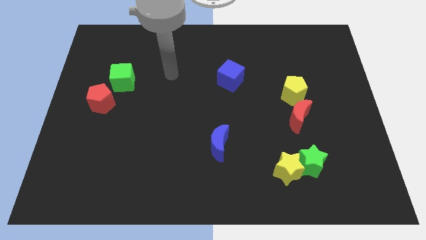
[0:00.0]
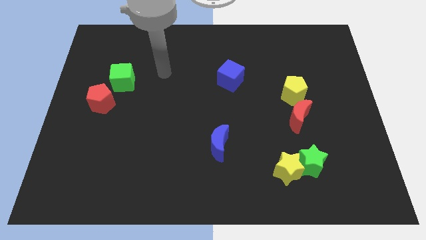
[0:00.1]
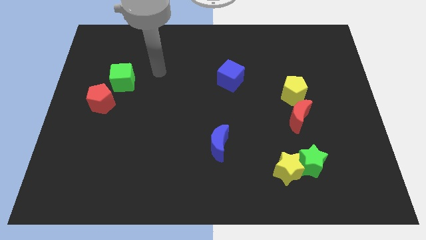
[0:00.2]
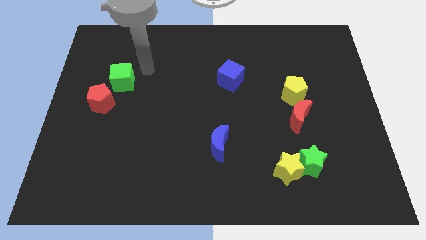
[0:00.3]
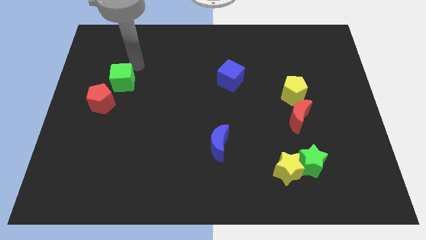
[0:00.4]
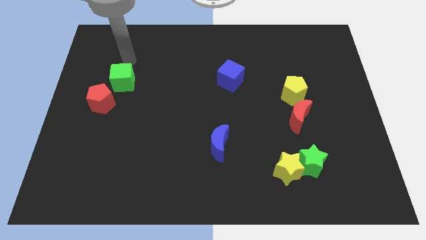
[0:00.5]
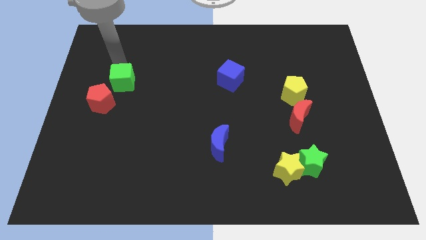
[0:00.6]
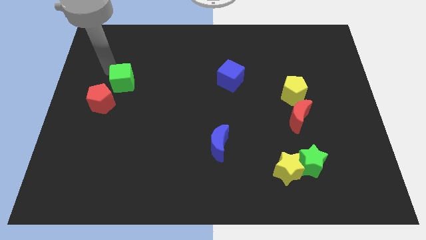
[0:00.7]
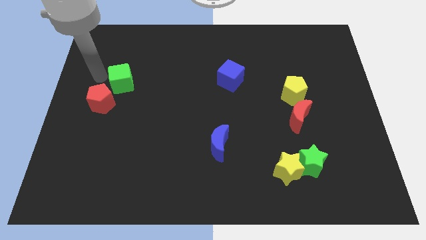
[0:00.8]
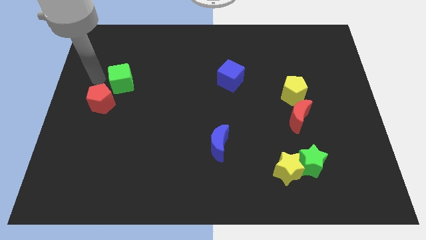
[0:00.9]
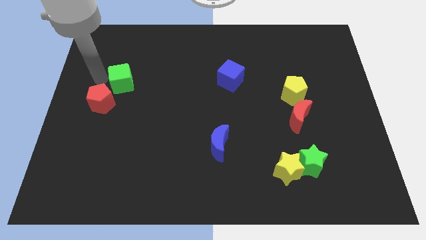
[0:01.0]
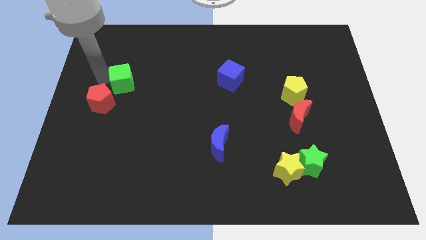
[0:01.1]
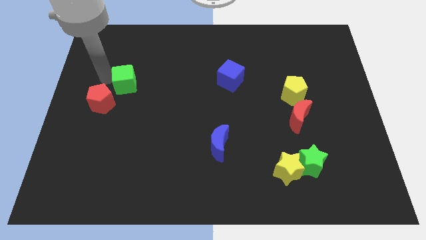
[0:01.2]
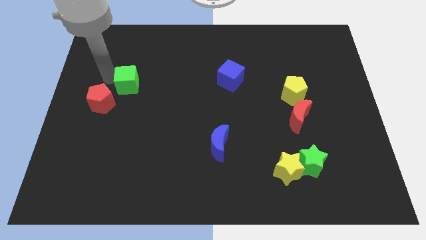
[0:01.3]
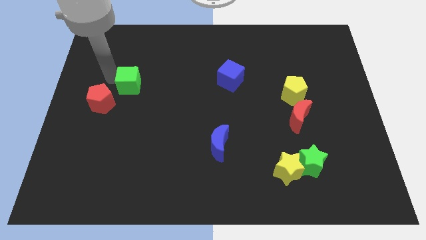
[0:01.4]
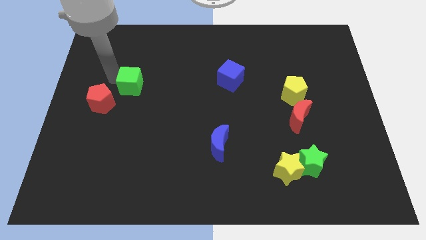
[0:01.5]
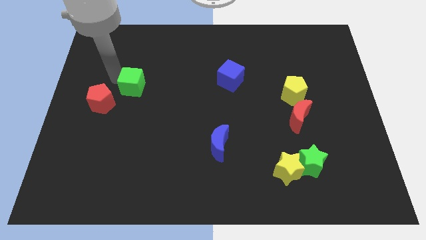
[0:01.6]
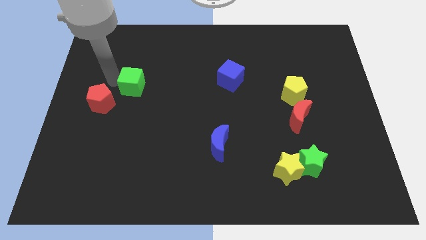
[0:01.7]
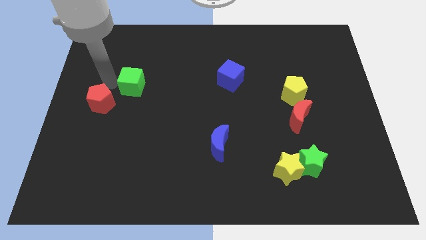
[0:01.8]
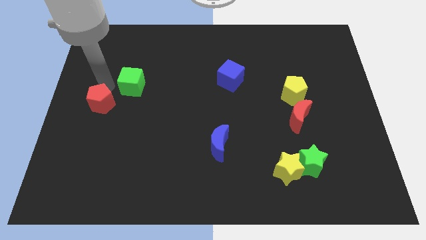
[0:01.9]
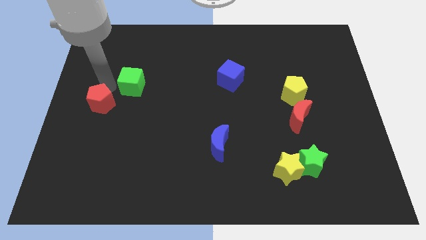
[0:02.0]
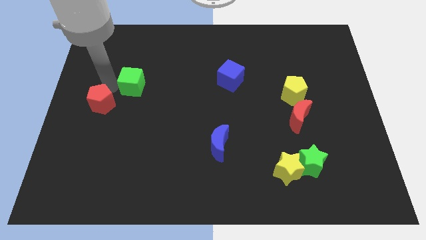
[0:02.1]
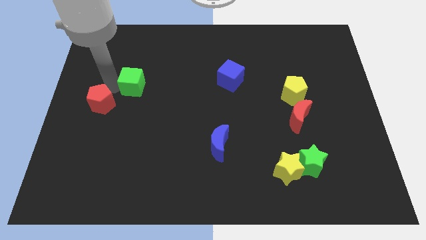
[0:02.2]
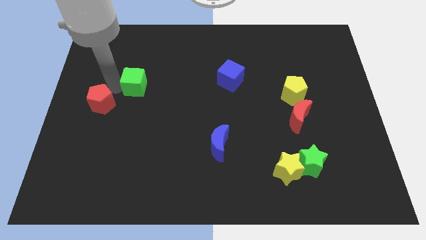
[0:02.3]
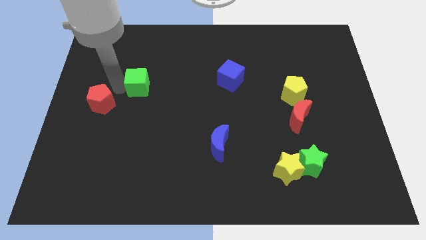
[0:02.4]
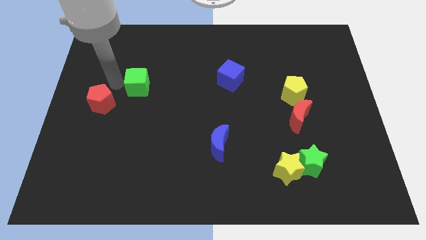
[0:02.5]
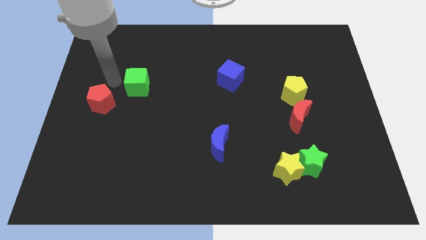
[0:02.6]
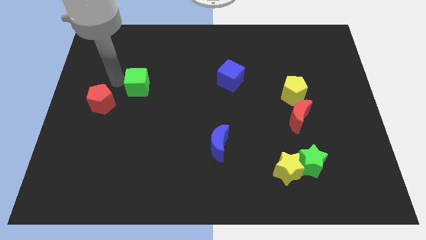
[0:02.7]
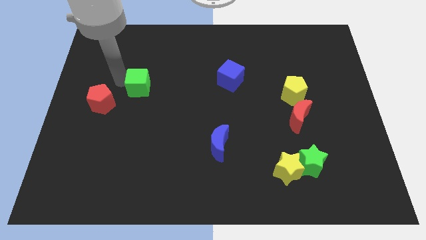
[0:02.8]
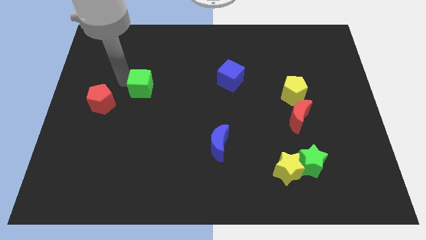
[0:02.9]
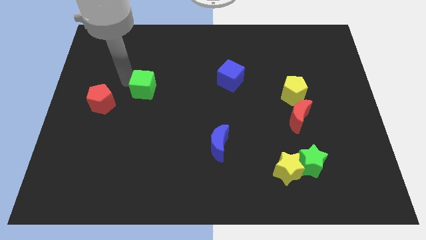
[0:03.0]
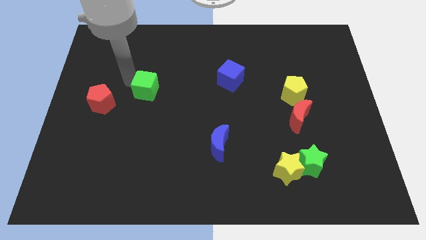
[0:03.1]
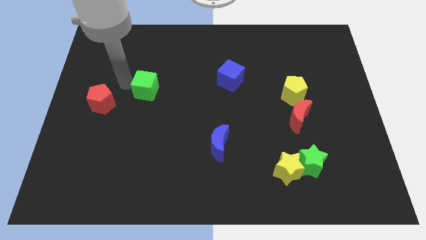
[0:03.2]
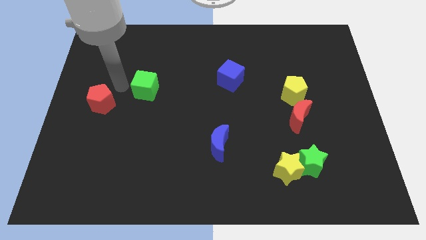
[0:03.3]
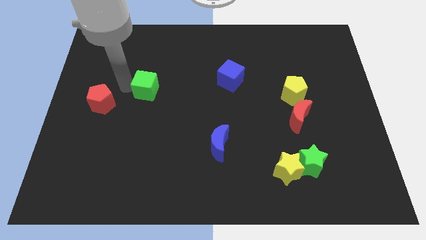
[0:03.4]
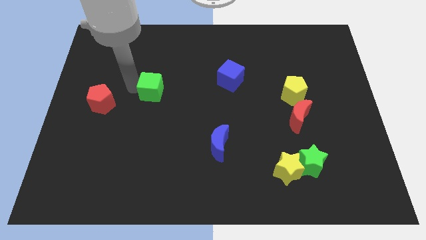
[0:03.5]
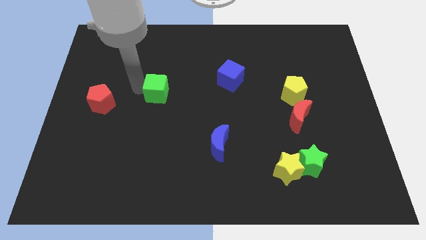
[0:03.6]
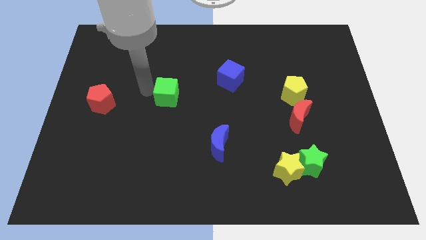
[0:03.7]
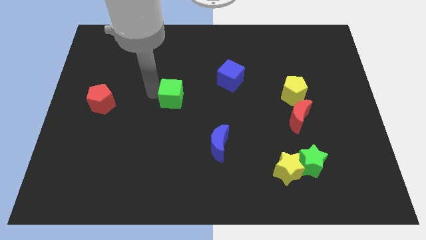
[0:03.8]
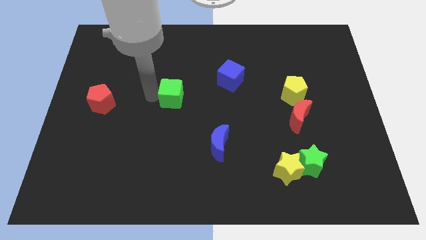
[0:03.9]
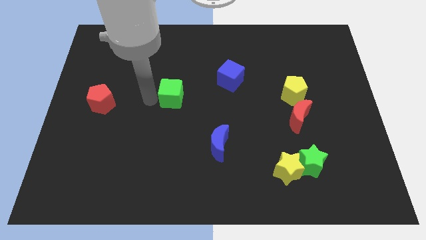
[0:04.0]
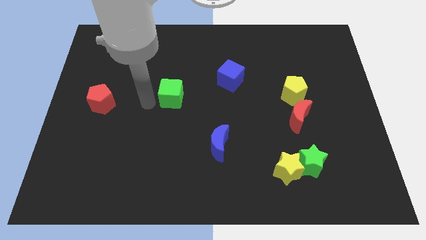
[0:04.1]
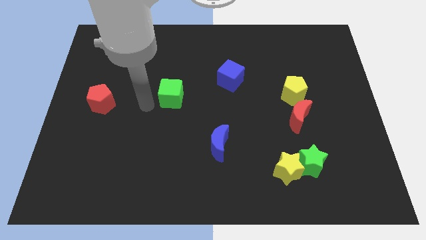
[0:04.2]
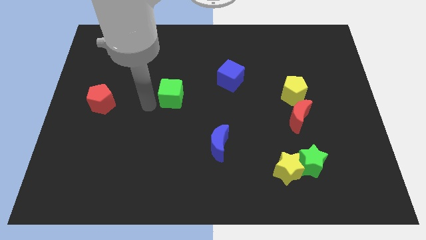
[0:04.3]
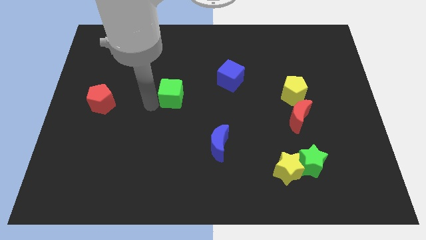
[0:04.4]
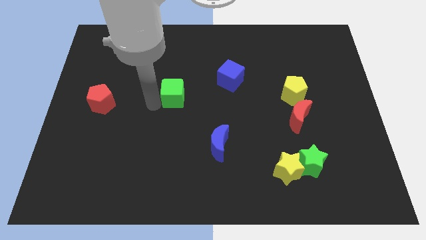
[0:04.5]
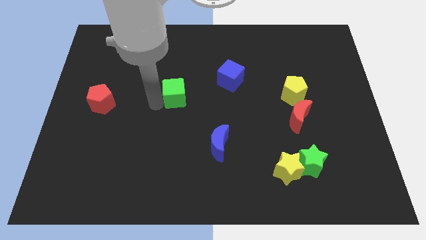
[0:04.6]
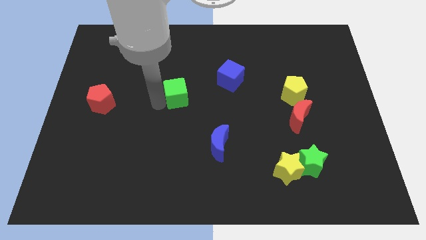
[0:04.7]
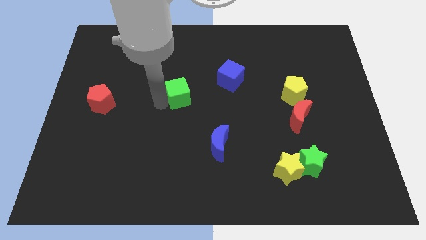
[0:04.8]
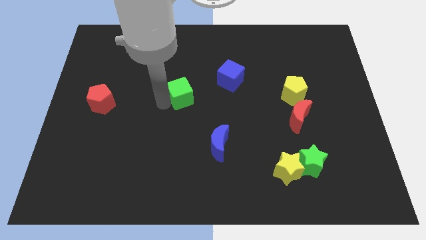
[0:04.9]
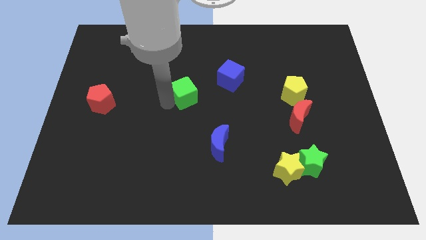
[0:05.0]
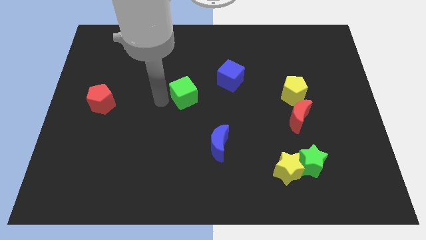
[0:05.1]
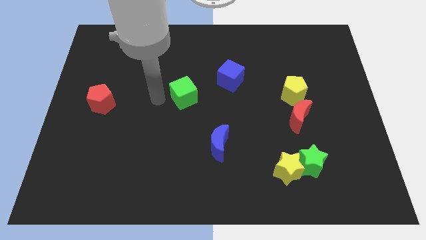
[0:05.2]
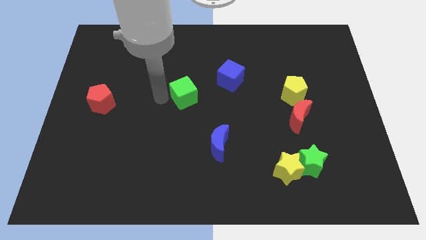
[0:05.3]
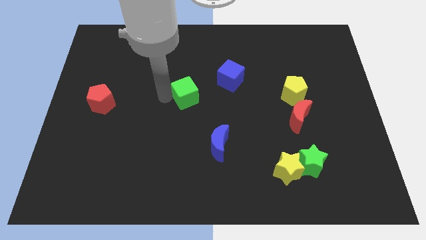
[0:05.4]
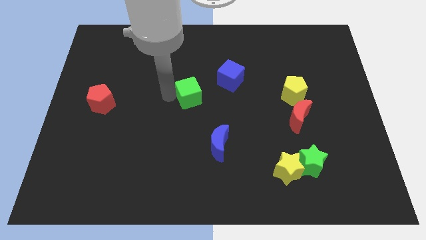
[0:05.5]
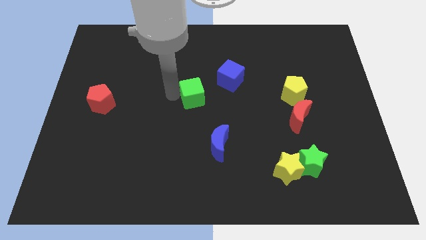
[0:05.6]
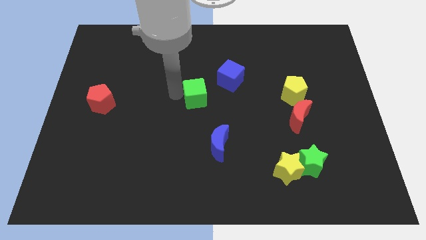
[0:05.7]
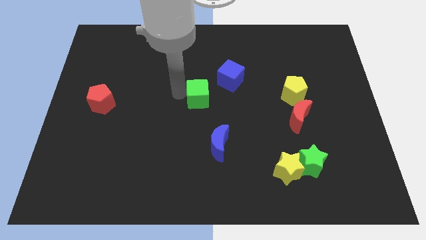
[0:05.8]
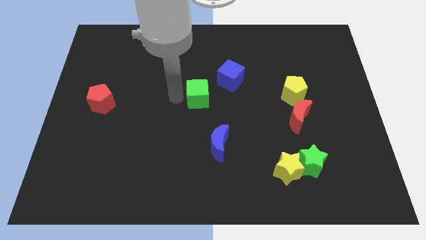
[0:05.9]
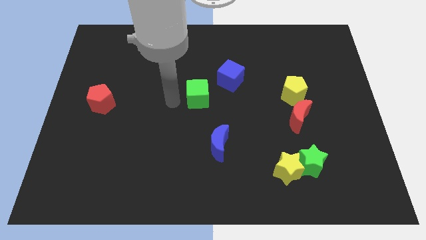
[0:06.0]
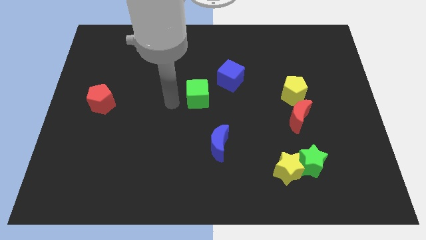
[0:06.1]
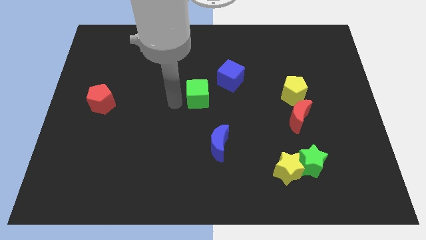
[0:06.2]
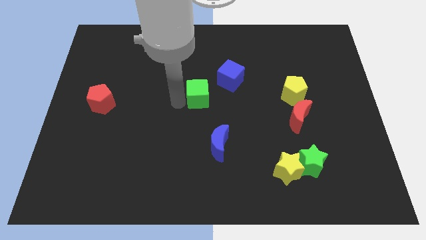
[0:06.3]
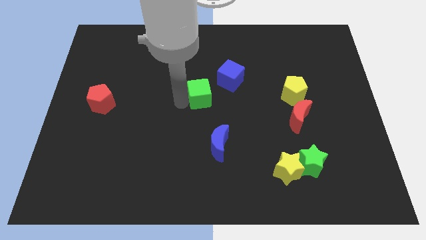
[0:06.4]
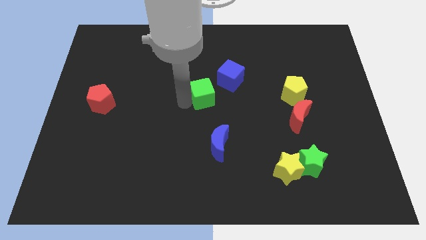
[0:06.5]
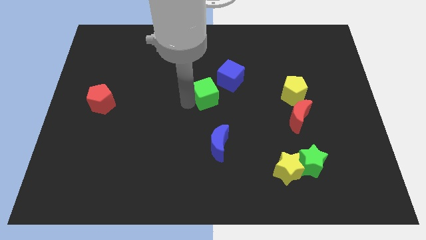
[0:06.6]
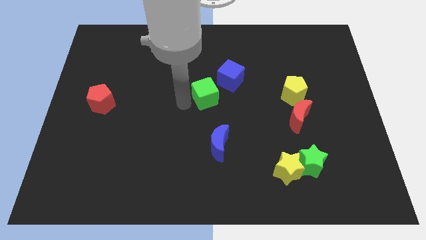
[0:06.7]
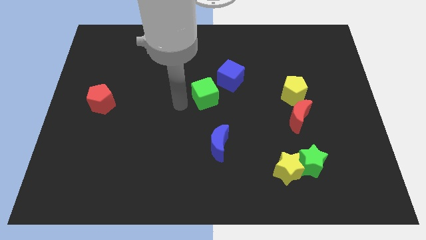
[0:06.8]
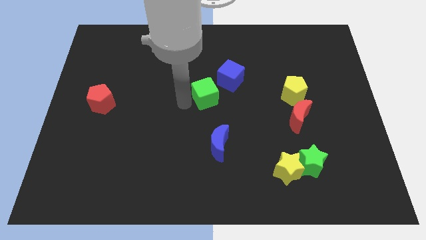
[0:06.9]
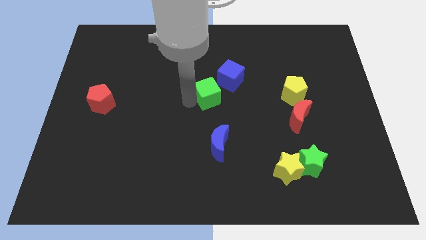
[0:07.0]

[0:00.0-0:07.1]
move the green cube to the right

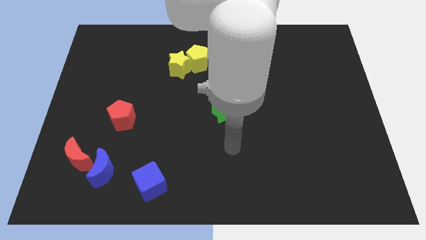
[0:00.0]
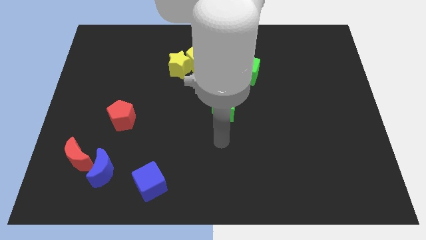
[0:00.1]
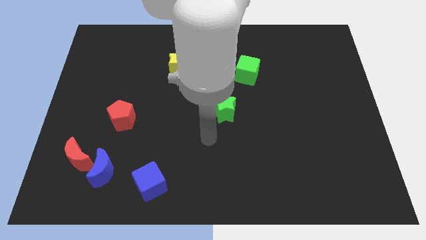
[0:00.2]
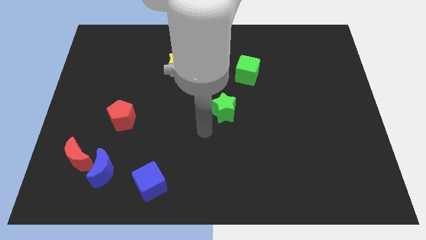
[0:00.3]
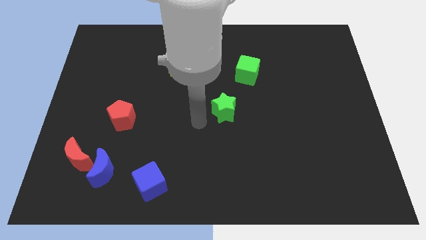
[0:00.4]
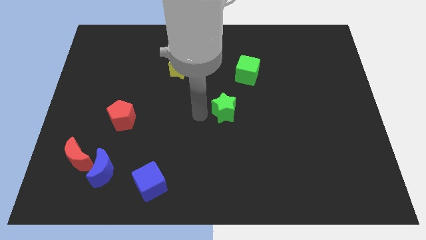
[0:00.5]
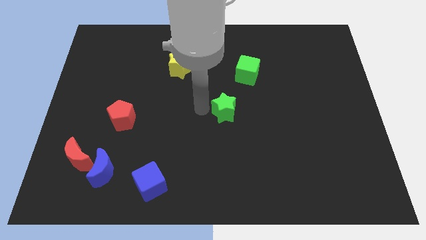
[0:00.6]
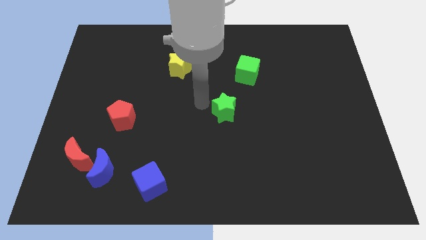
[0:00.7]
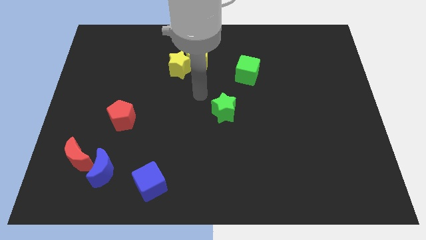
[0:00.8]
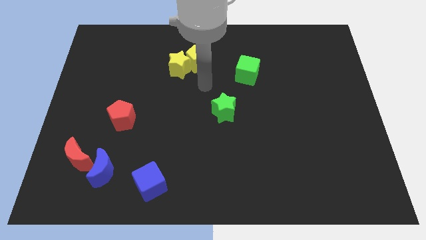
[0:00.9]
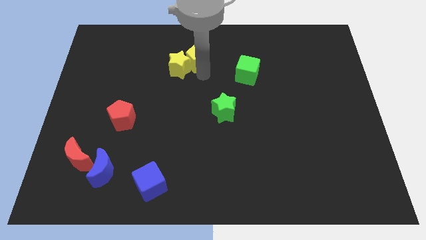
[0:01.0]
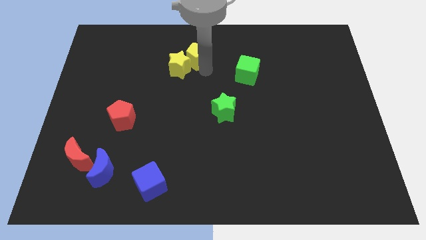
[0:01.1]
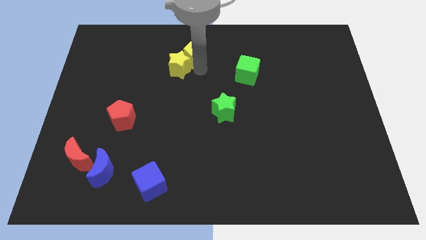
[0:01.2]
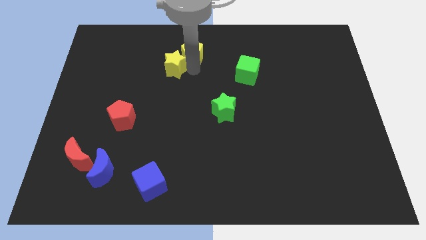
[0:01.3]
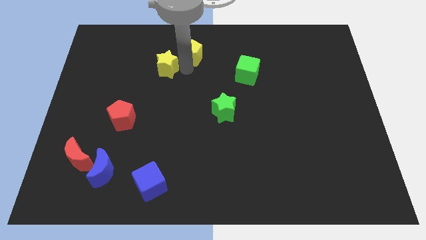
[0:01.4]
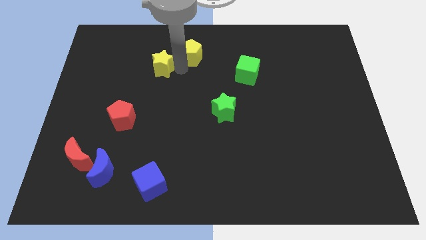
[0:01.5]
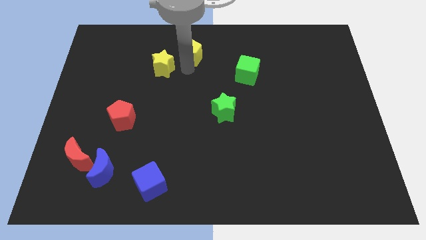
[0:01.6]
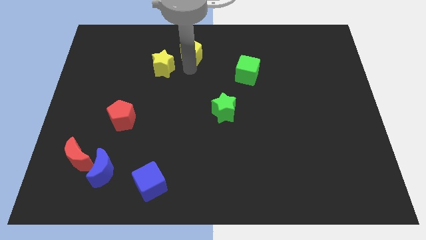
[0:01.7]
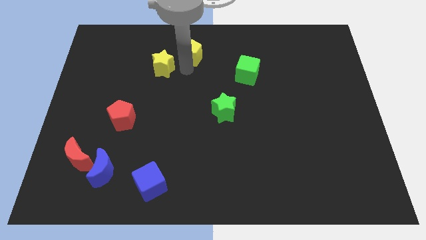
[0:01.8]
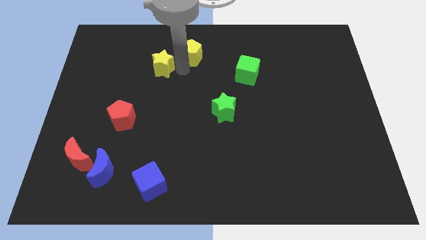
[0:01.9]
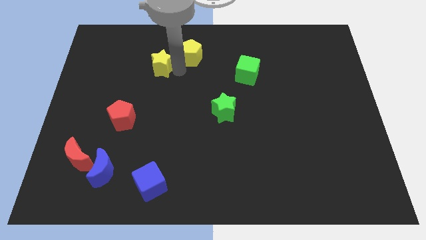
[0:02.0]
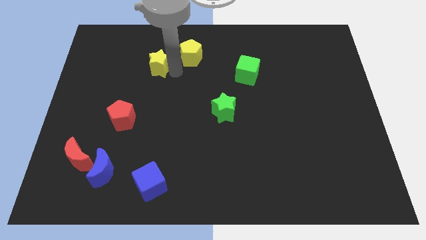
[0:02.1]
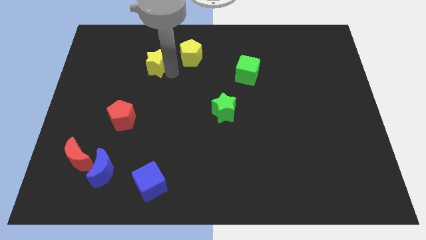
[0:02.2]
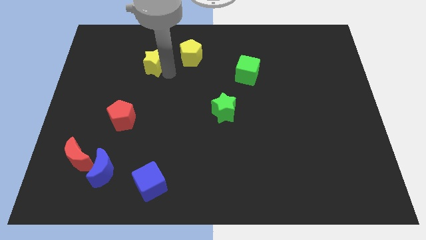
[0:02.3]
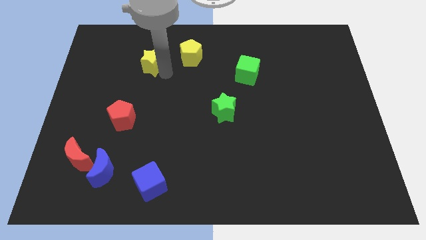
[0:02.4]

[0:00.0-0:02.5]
slightly move the yellow star left
